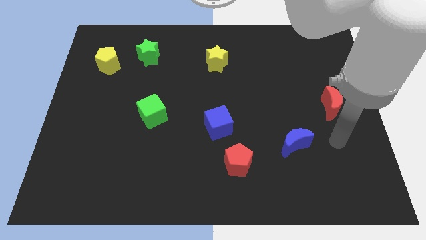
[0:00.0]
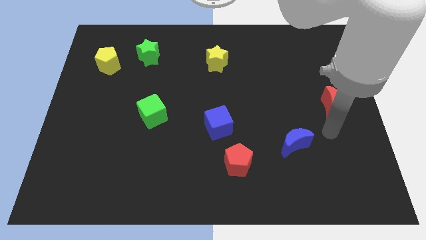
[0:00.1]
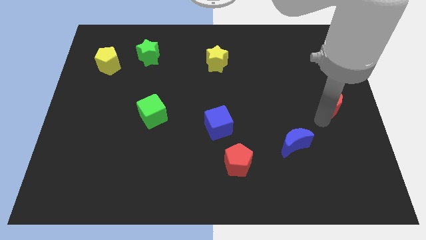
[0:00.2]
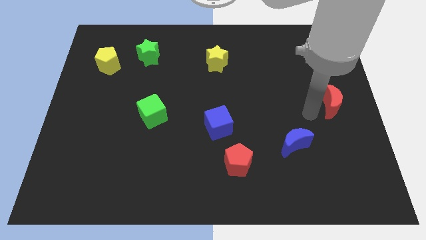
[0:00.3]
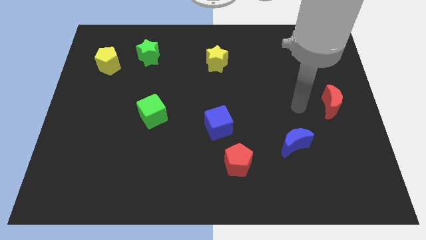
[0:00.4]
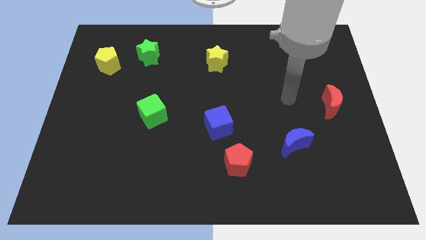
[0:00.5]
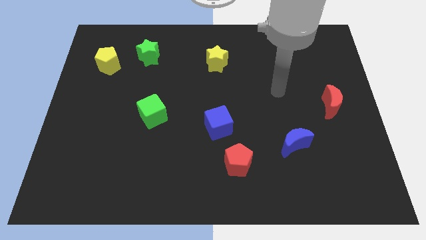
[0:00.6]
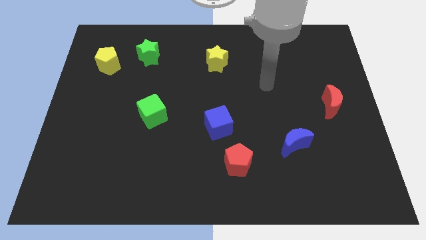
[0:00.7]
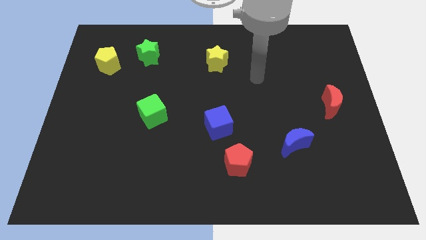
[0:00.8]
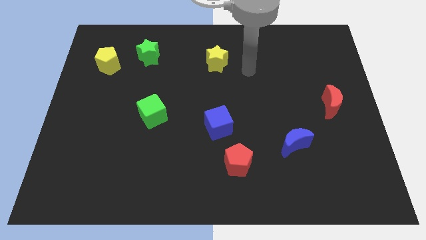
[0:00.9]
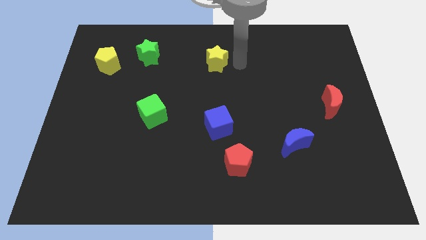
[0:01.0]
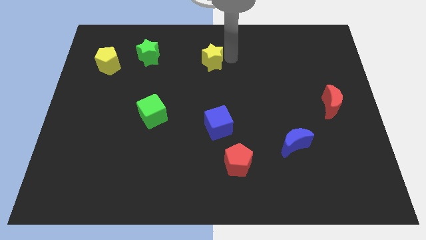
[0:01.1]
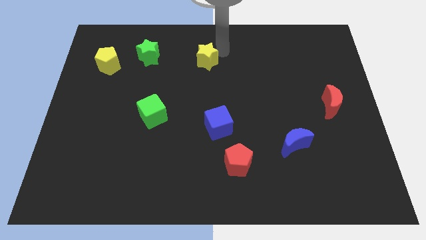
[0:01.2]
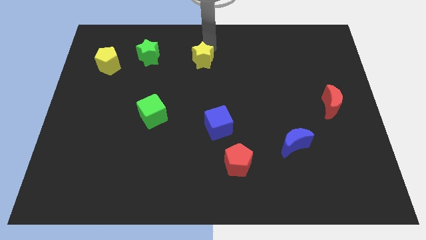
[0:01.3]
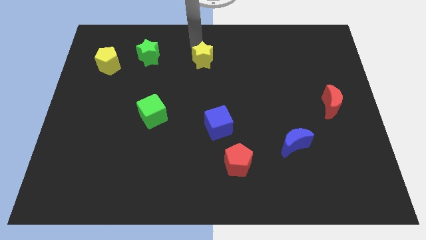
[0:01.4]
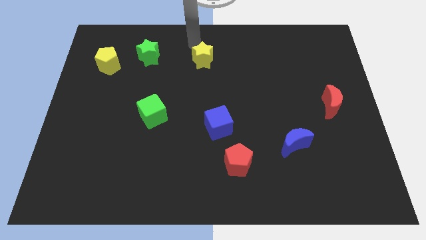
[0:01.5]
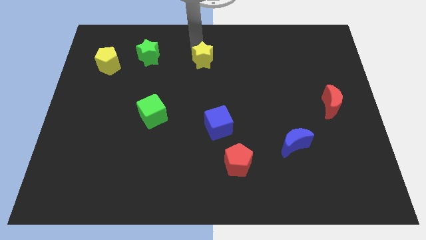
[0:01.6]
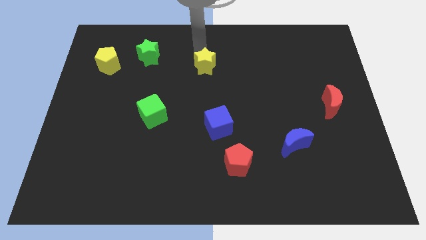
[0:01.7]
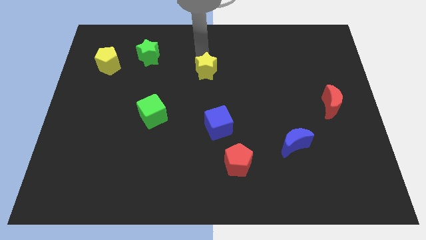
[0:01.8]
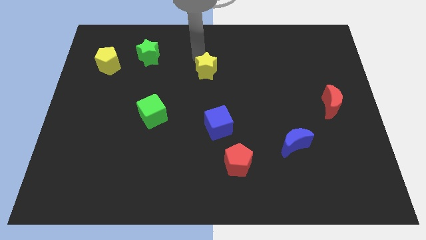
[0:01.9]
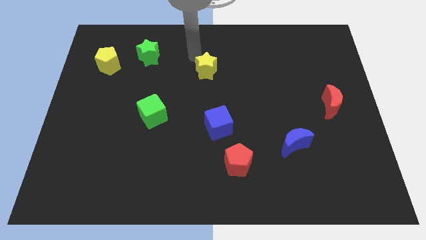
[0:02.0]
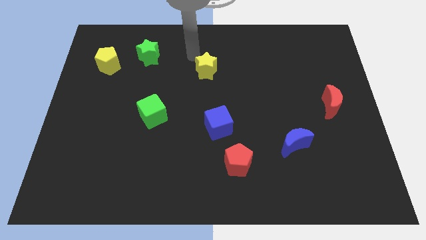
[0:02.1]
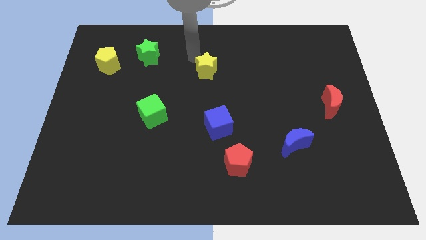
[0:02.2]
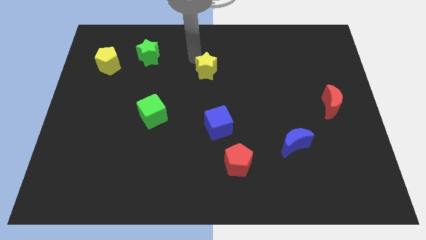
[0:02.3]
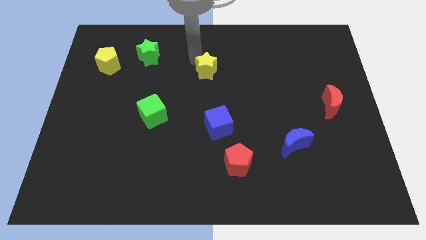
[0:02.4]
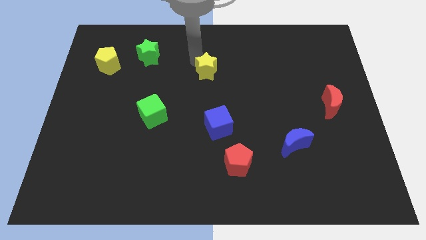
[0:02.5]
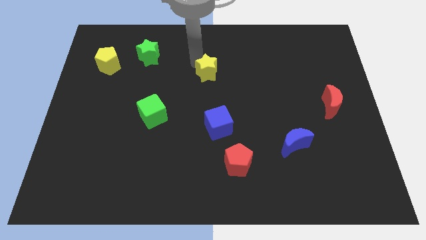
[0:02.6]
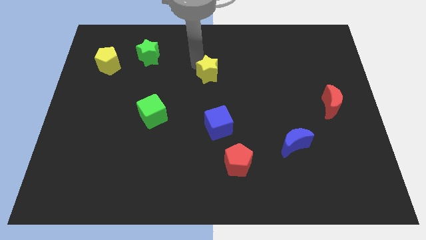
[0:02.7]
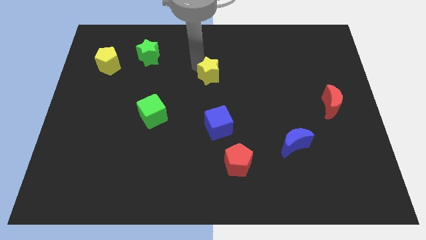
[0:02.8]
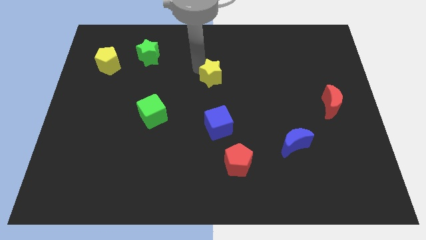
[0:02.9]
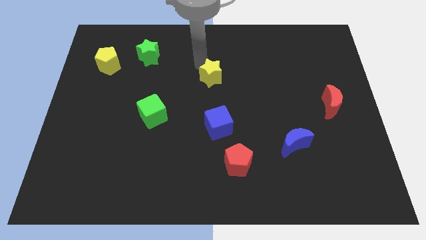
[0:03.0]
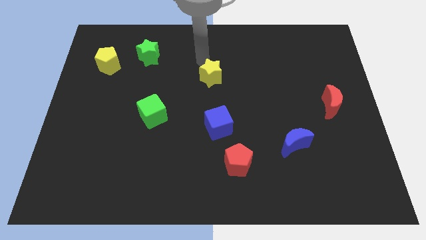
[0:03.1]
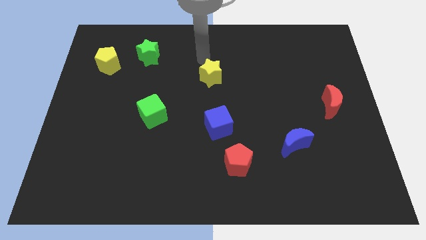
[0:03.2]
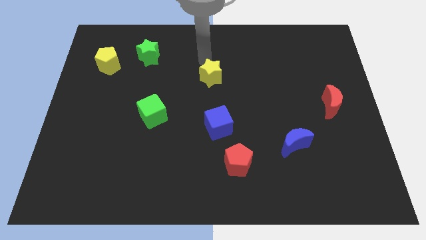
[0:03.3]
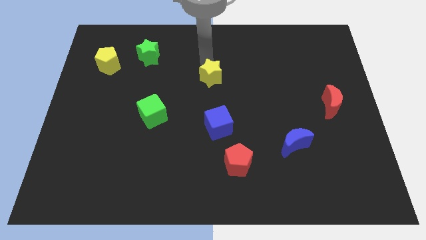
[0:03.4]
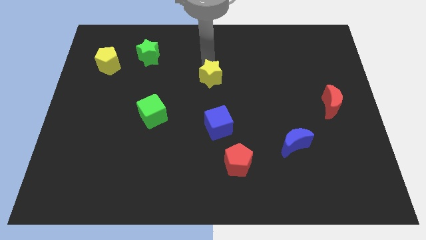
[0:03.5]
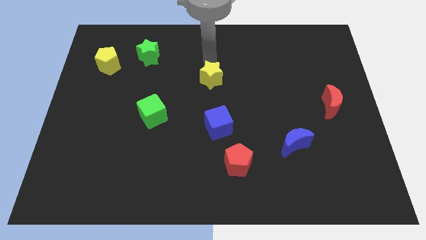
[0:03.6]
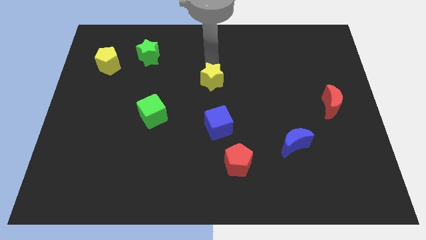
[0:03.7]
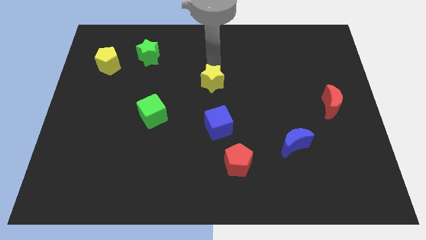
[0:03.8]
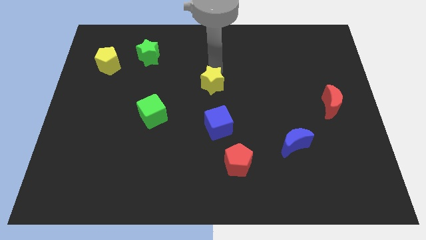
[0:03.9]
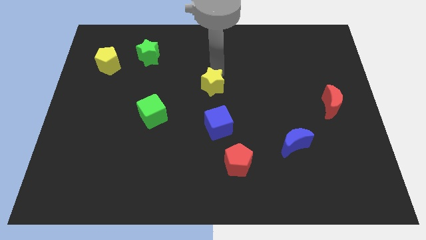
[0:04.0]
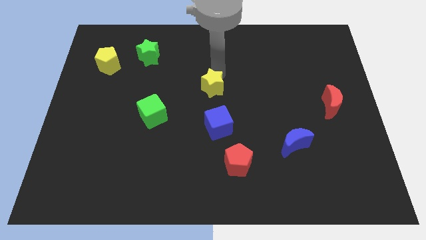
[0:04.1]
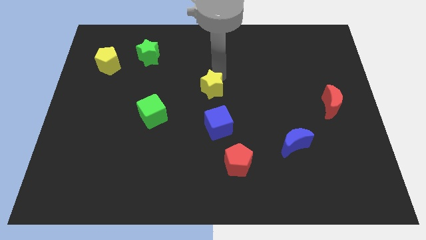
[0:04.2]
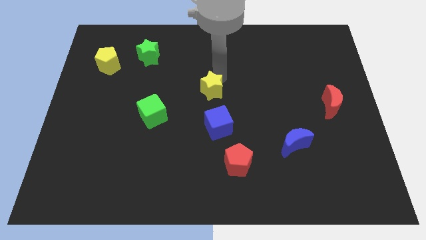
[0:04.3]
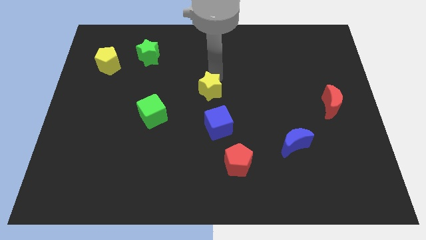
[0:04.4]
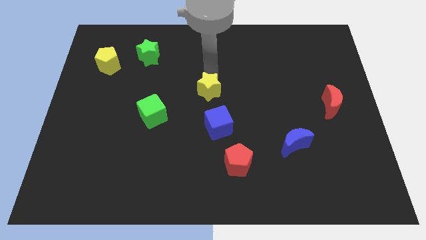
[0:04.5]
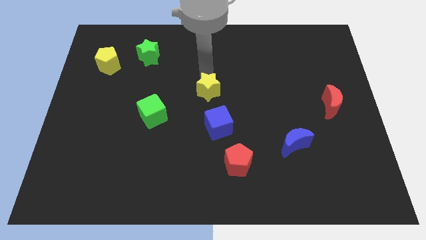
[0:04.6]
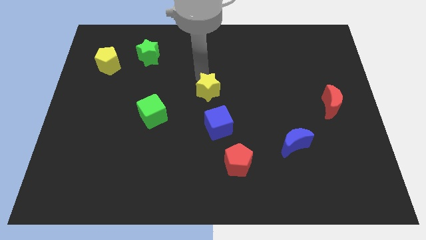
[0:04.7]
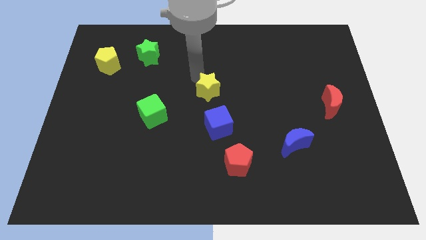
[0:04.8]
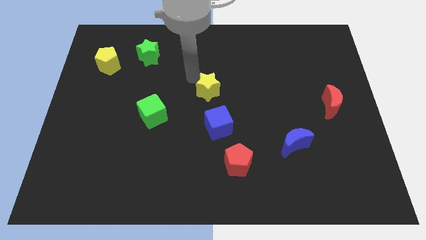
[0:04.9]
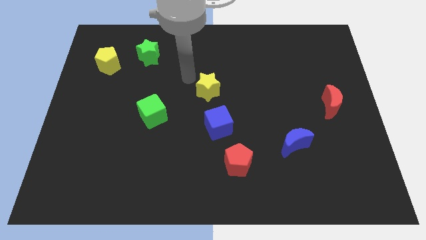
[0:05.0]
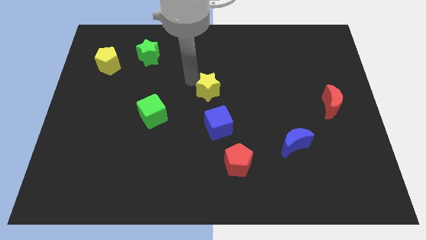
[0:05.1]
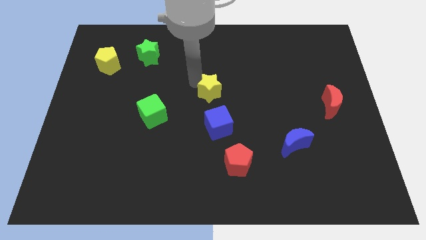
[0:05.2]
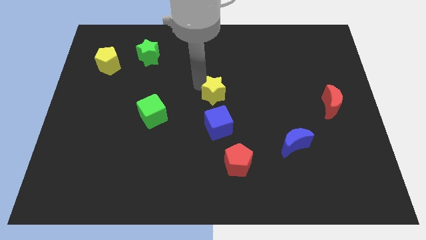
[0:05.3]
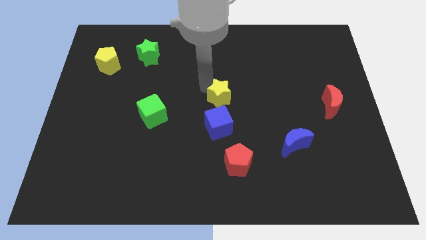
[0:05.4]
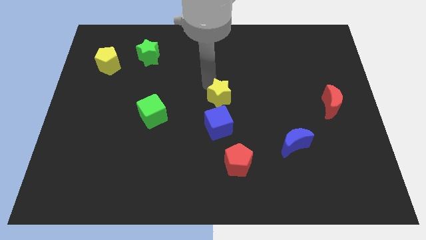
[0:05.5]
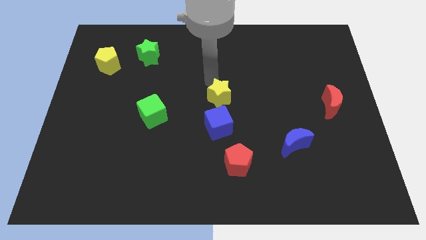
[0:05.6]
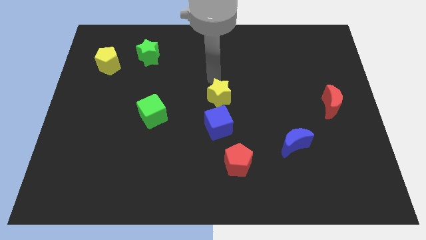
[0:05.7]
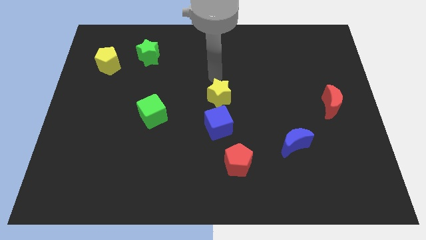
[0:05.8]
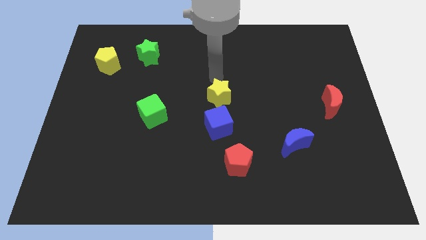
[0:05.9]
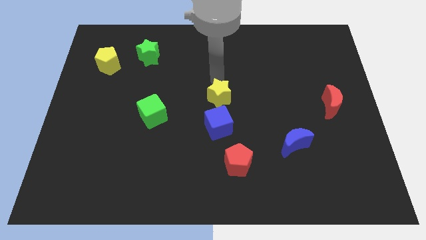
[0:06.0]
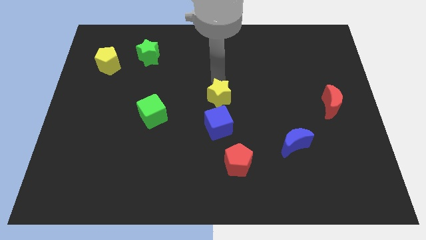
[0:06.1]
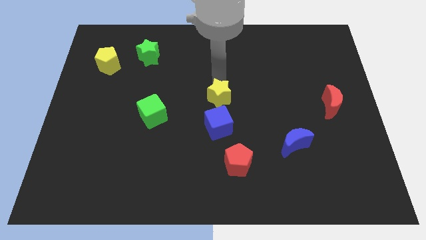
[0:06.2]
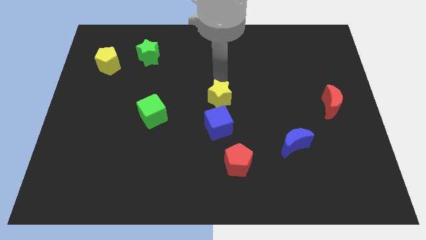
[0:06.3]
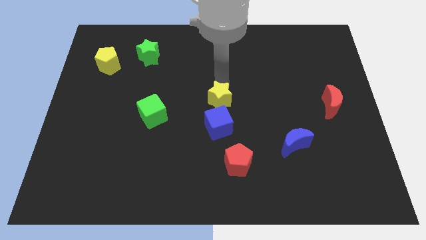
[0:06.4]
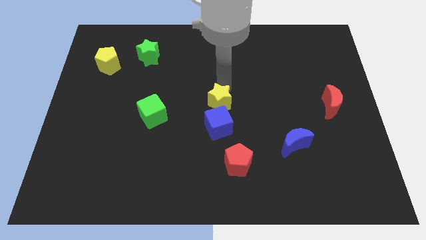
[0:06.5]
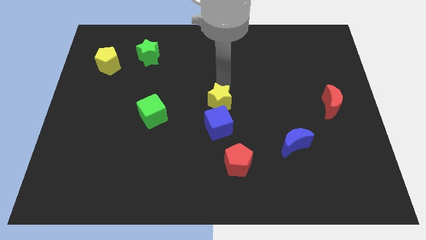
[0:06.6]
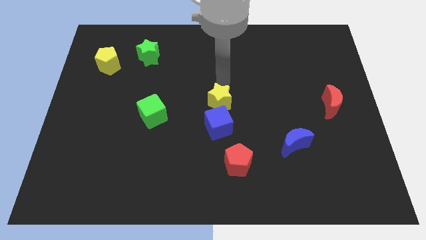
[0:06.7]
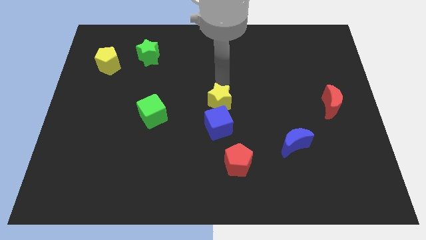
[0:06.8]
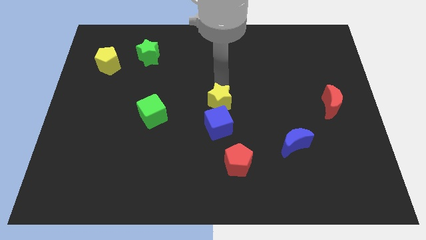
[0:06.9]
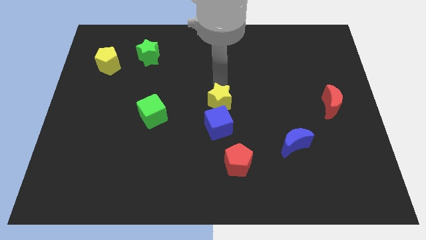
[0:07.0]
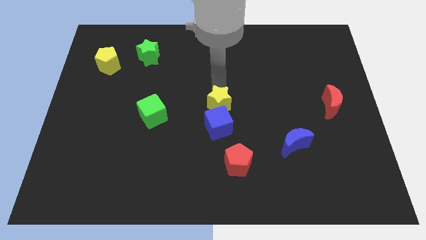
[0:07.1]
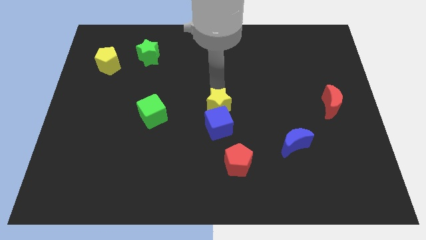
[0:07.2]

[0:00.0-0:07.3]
slide the yellow star close to the blue cube

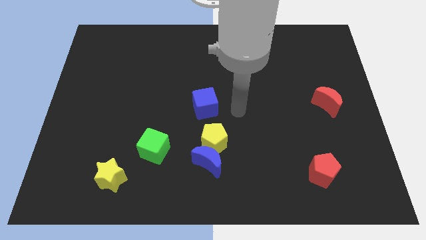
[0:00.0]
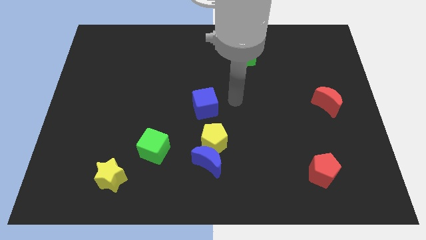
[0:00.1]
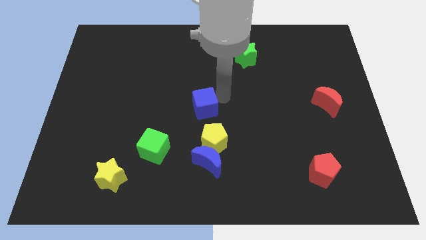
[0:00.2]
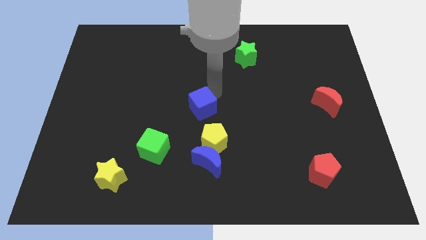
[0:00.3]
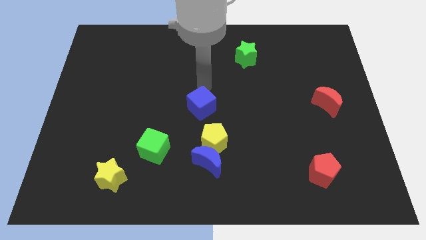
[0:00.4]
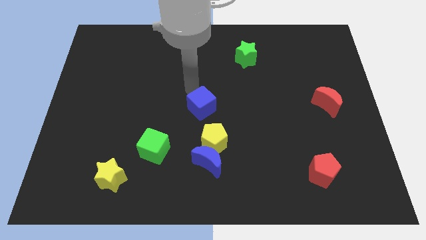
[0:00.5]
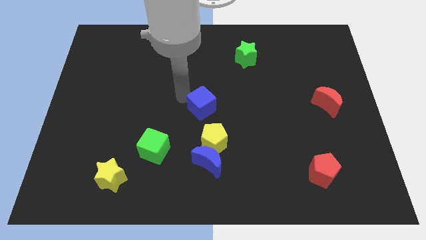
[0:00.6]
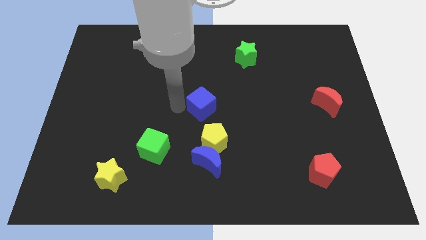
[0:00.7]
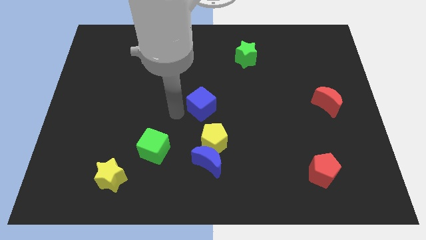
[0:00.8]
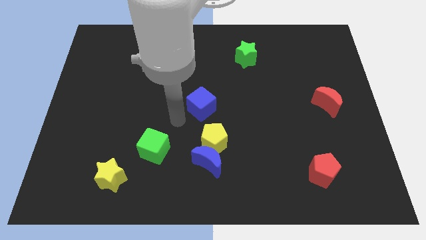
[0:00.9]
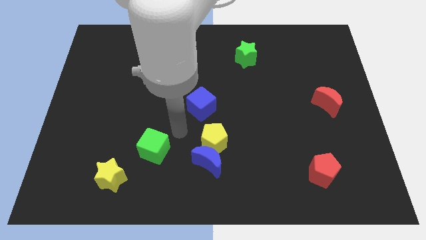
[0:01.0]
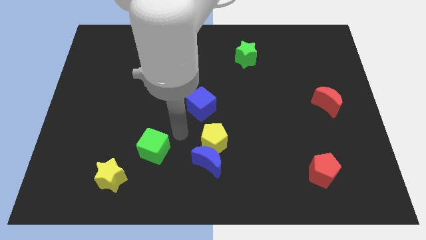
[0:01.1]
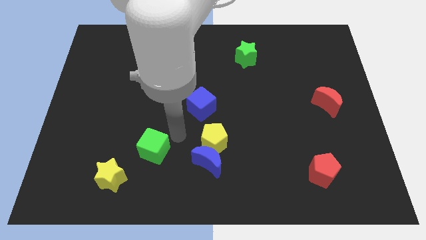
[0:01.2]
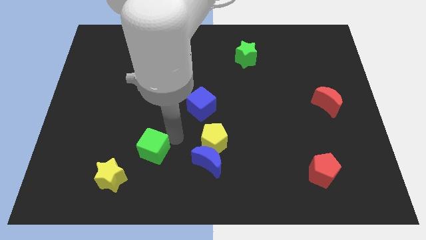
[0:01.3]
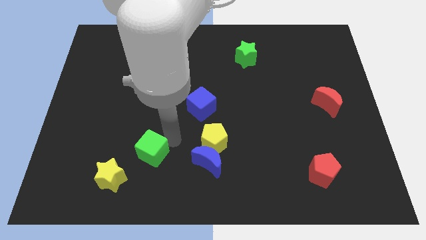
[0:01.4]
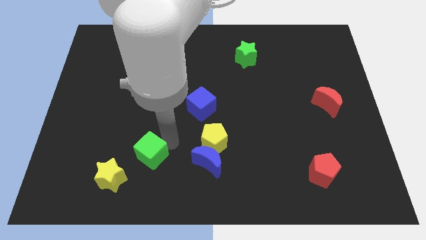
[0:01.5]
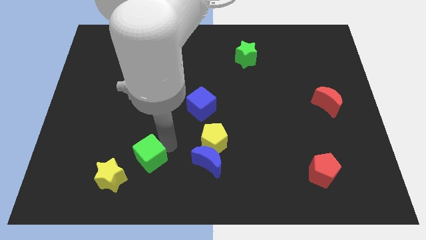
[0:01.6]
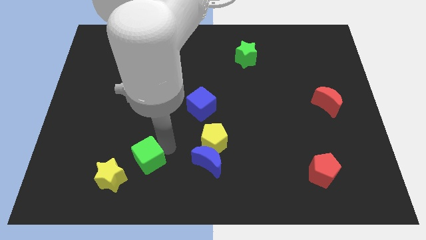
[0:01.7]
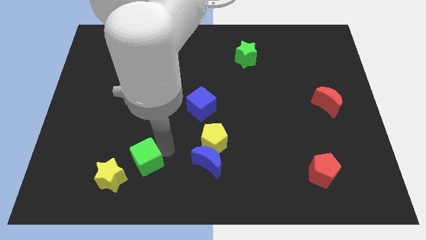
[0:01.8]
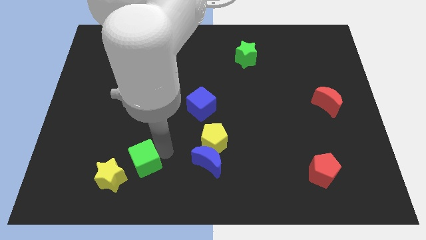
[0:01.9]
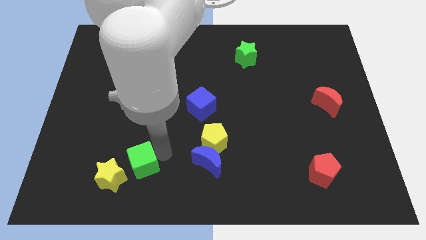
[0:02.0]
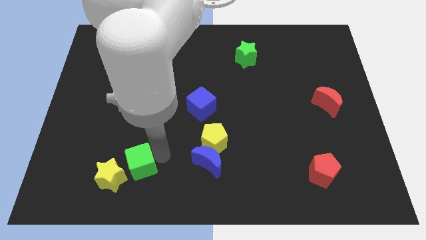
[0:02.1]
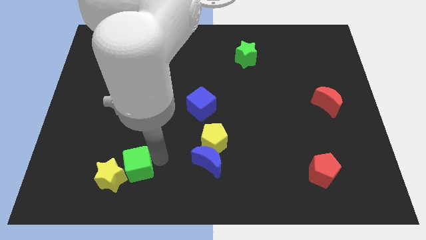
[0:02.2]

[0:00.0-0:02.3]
slide the green cube close to the yellow star
